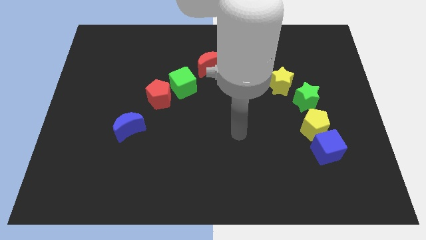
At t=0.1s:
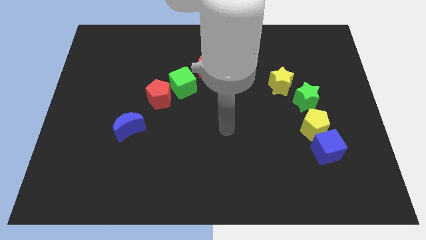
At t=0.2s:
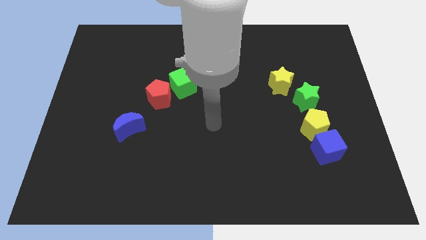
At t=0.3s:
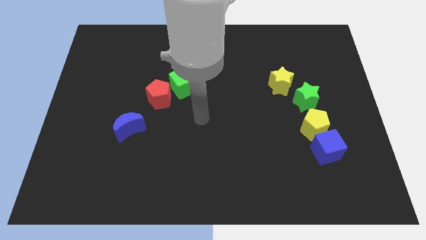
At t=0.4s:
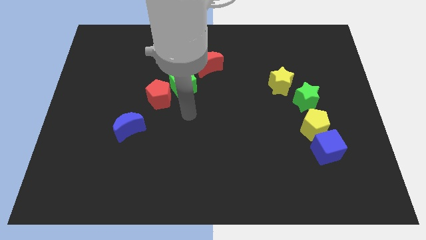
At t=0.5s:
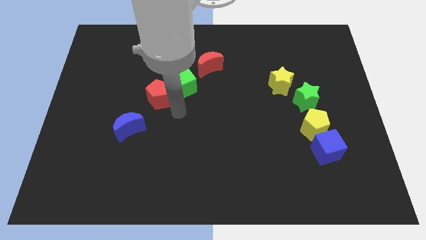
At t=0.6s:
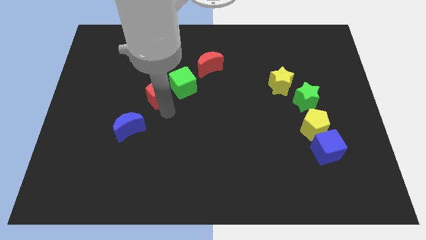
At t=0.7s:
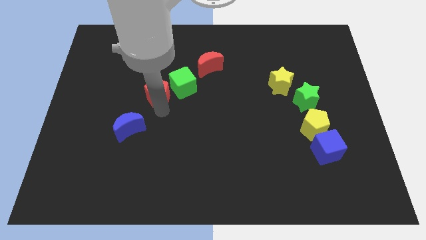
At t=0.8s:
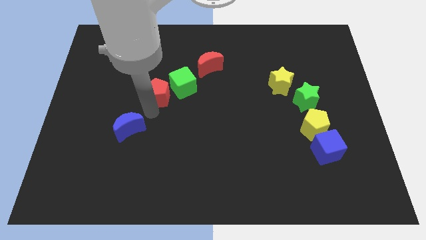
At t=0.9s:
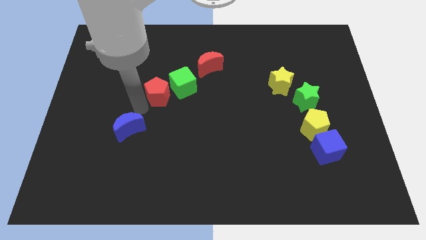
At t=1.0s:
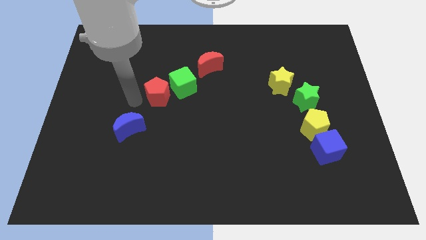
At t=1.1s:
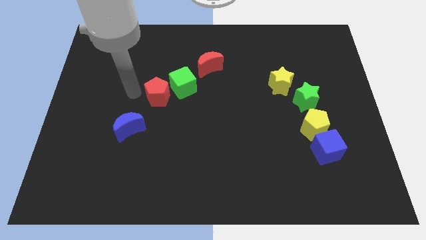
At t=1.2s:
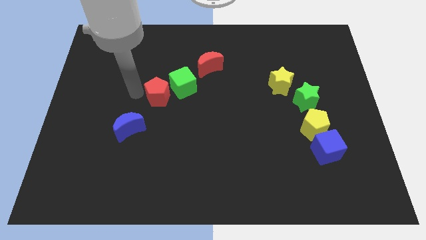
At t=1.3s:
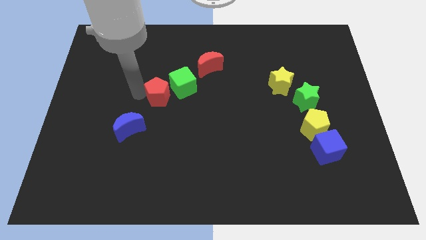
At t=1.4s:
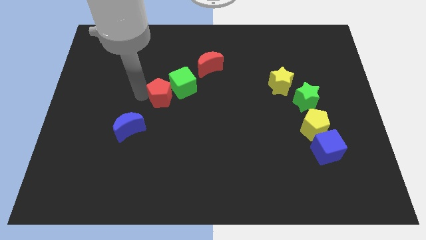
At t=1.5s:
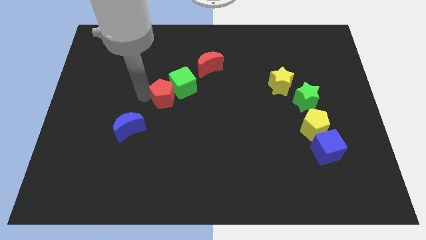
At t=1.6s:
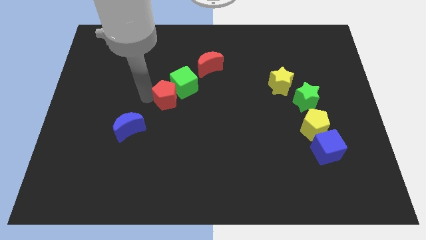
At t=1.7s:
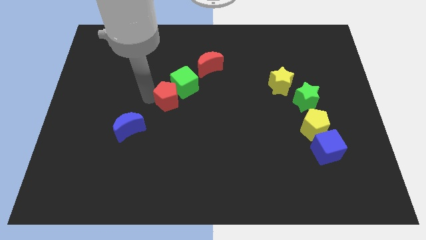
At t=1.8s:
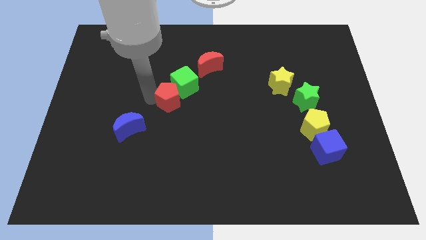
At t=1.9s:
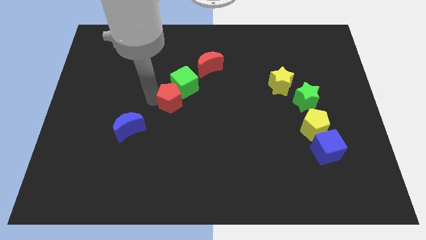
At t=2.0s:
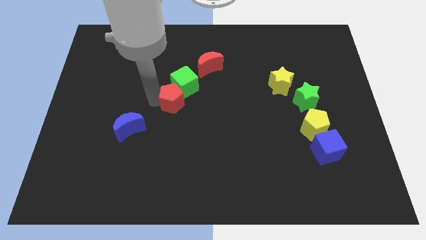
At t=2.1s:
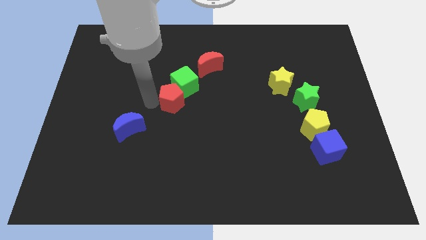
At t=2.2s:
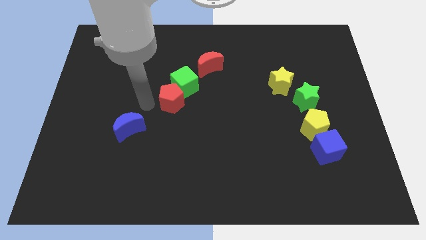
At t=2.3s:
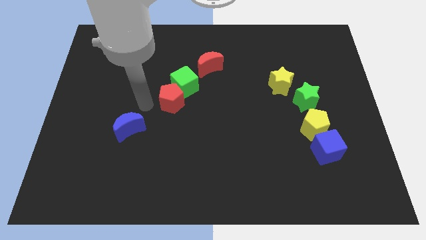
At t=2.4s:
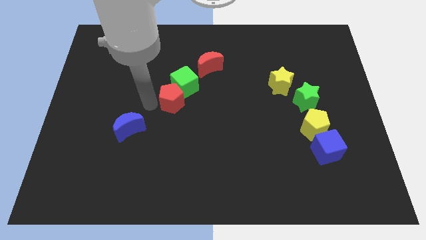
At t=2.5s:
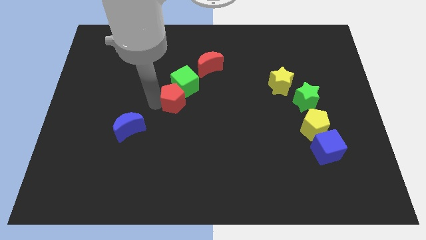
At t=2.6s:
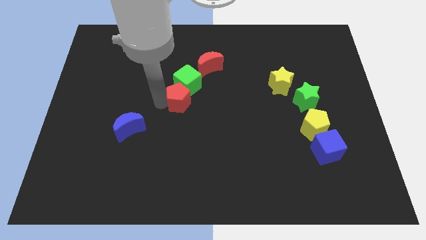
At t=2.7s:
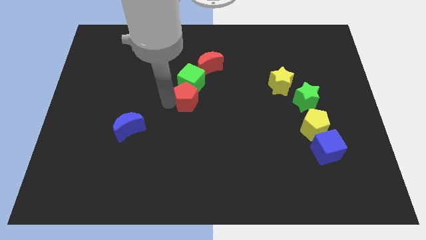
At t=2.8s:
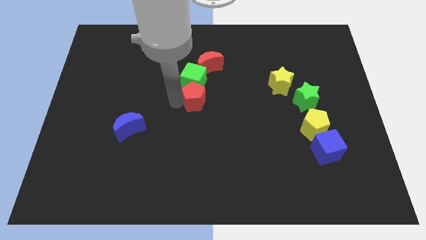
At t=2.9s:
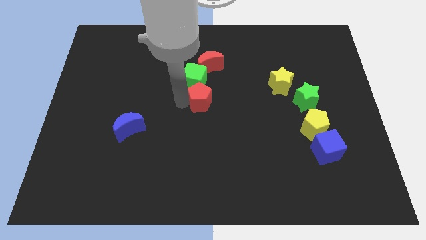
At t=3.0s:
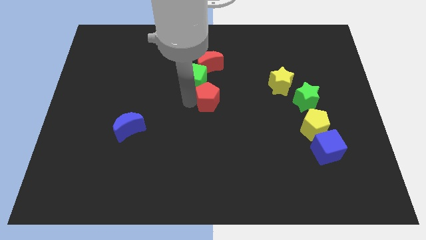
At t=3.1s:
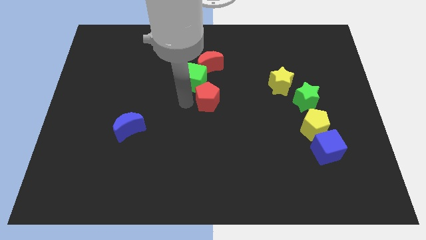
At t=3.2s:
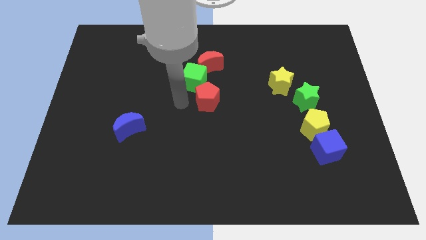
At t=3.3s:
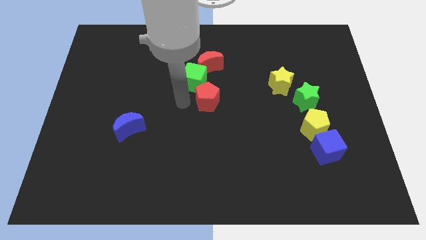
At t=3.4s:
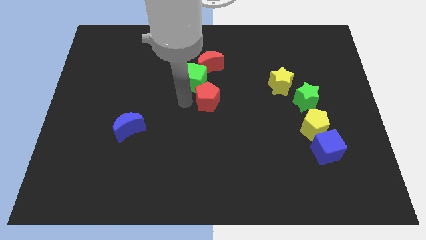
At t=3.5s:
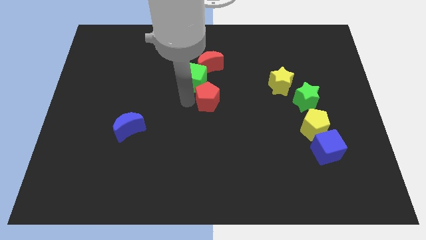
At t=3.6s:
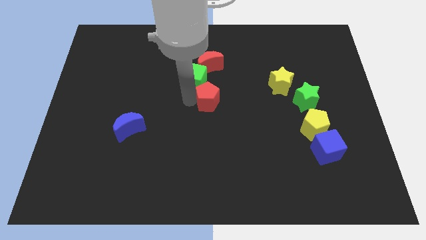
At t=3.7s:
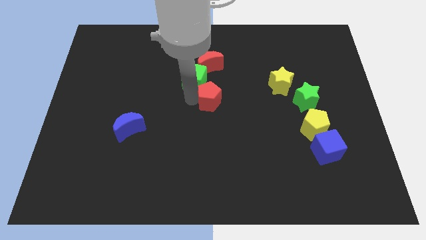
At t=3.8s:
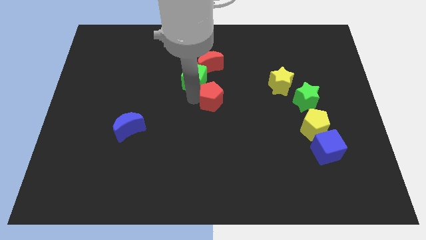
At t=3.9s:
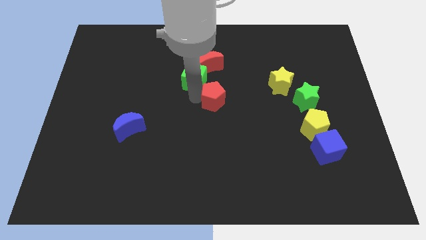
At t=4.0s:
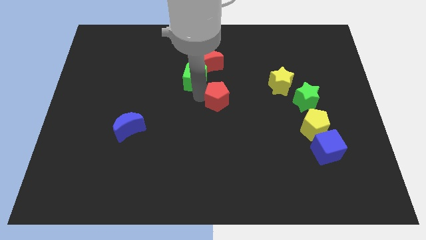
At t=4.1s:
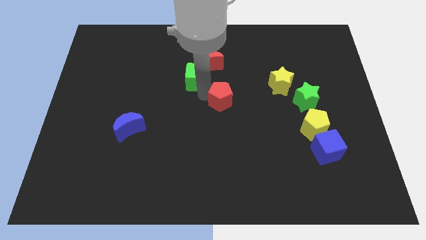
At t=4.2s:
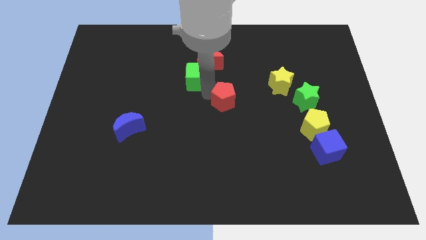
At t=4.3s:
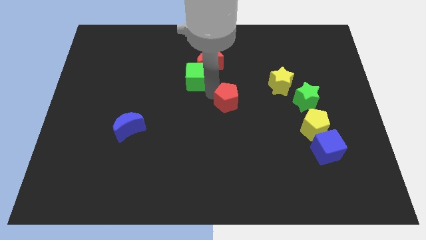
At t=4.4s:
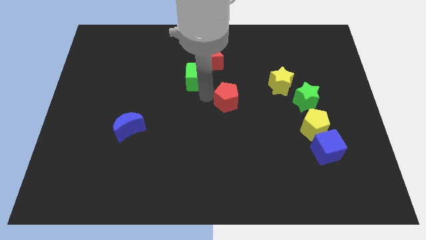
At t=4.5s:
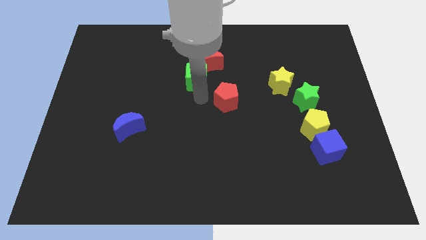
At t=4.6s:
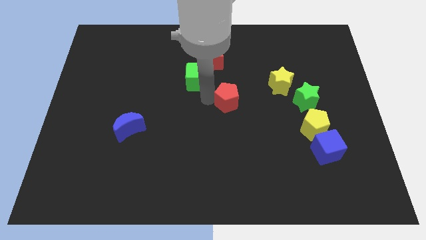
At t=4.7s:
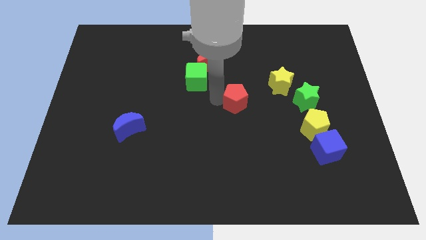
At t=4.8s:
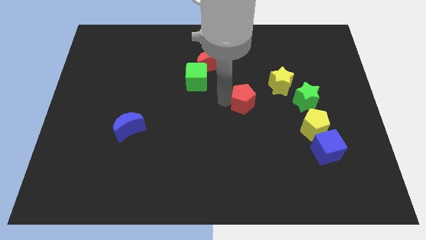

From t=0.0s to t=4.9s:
move the red pentagon to the bottom left side of the yellow star

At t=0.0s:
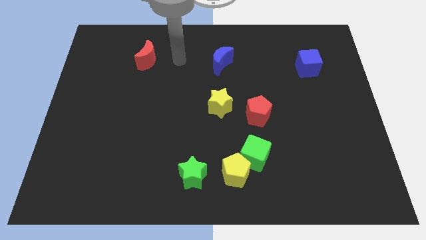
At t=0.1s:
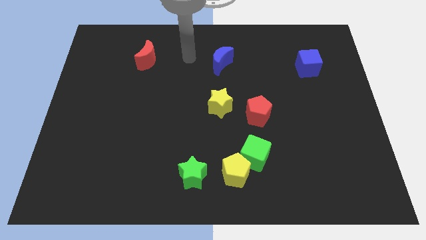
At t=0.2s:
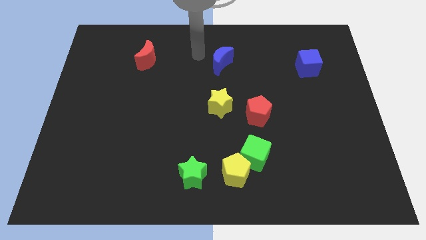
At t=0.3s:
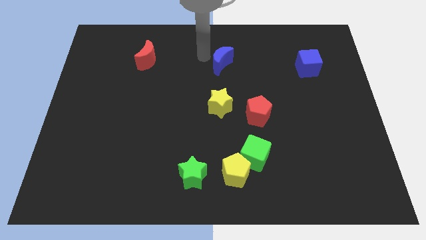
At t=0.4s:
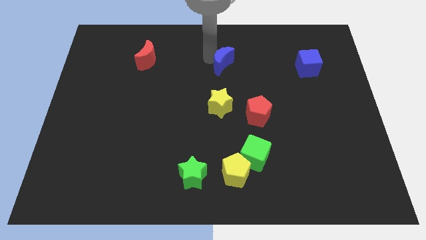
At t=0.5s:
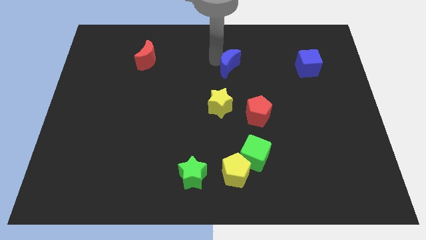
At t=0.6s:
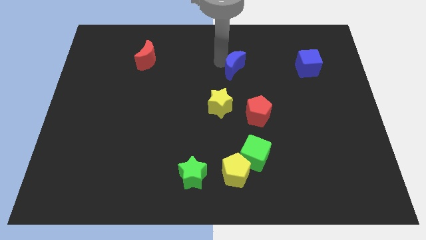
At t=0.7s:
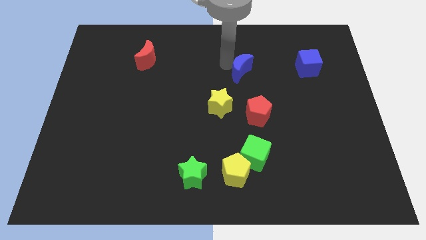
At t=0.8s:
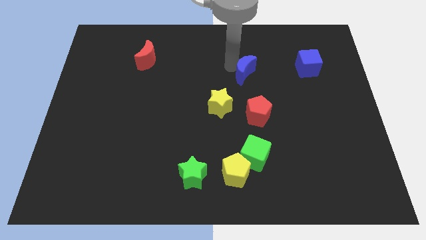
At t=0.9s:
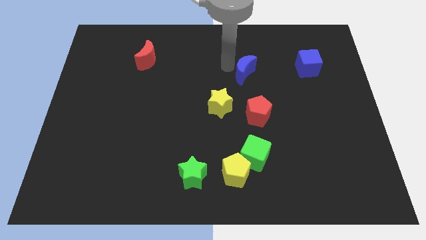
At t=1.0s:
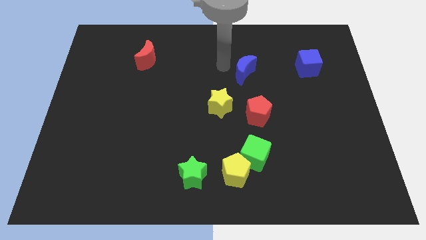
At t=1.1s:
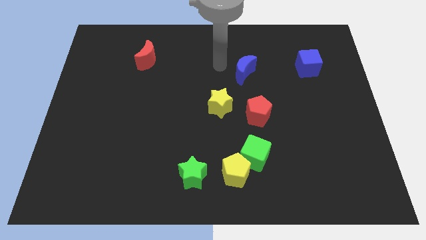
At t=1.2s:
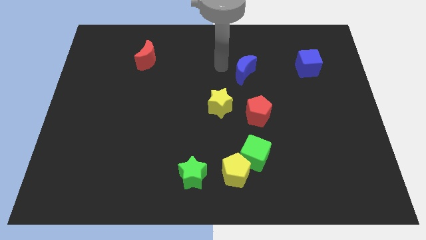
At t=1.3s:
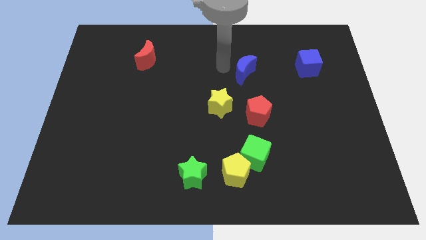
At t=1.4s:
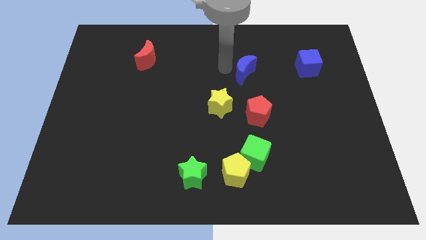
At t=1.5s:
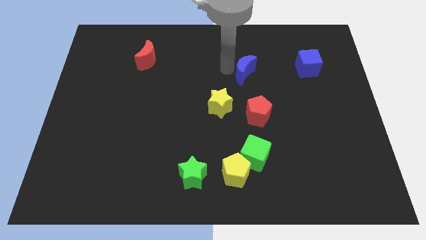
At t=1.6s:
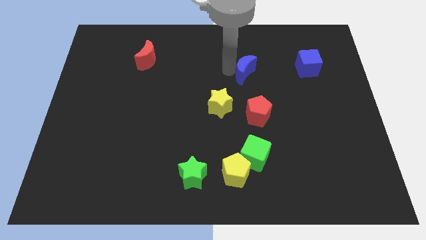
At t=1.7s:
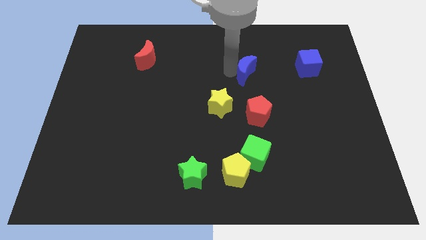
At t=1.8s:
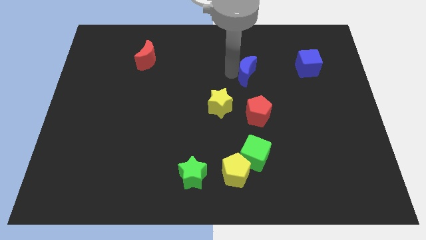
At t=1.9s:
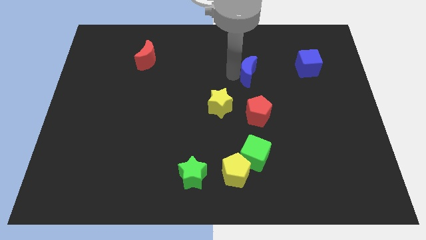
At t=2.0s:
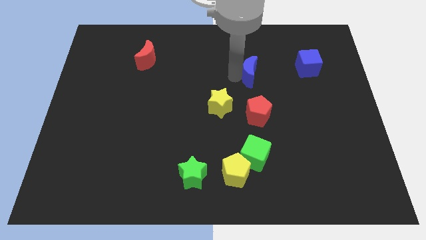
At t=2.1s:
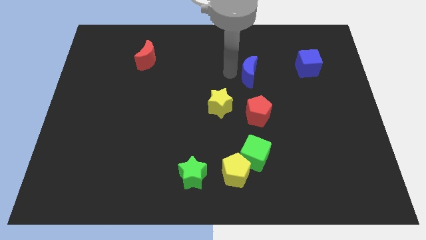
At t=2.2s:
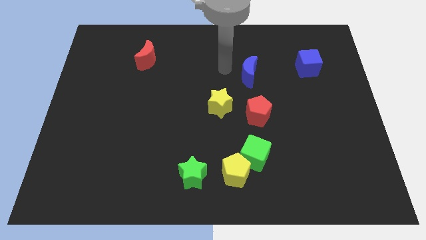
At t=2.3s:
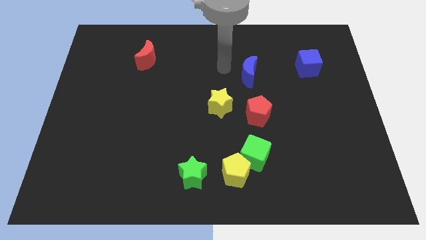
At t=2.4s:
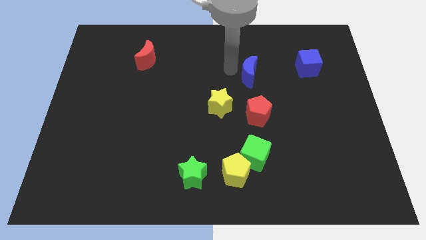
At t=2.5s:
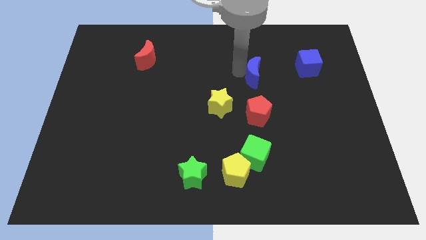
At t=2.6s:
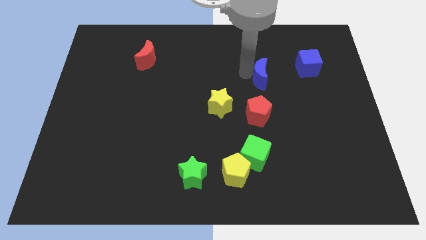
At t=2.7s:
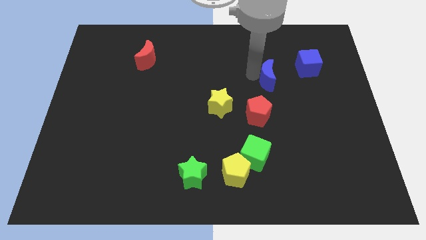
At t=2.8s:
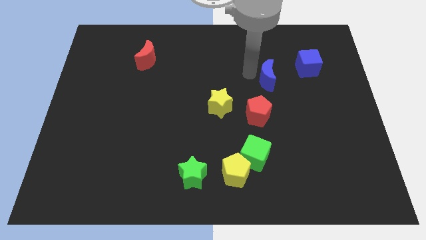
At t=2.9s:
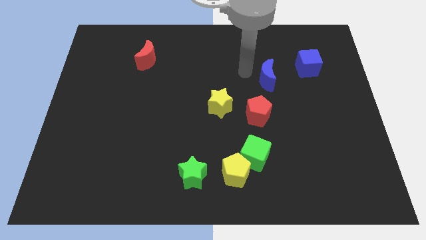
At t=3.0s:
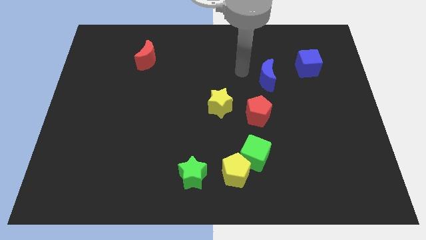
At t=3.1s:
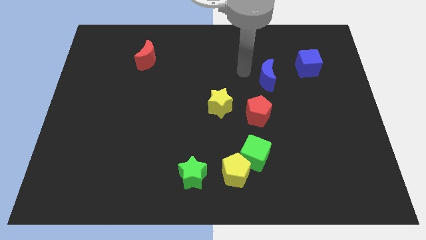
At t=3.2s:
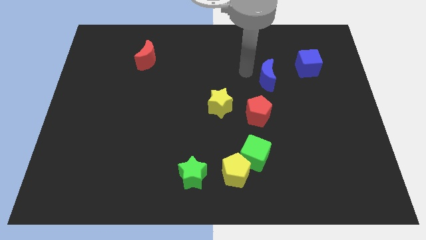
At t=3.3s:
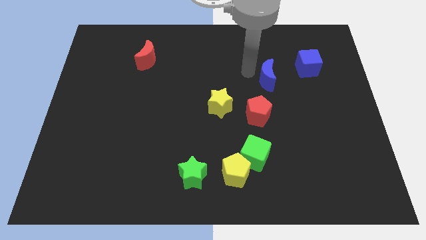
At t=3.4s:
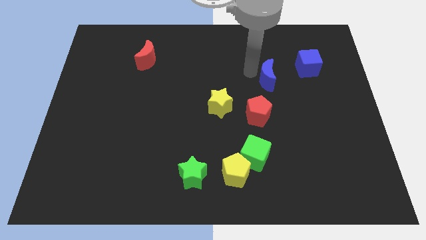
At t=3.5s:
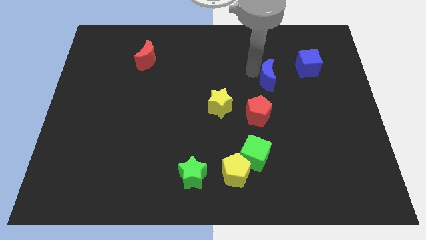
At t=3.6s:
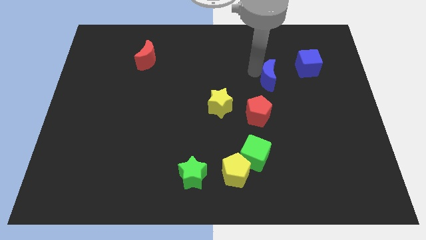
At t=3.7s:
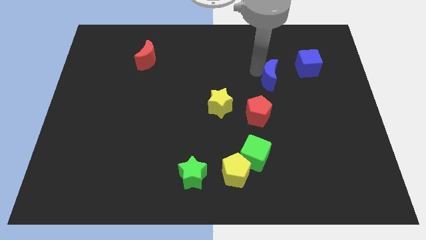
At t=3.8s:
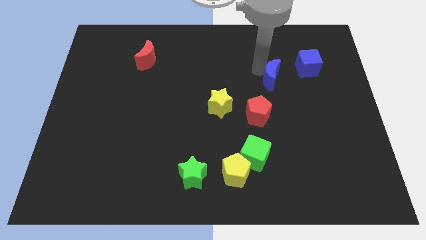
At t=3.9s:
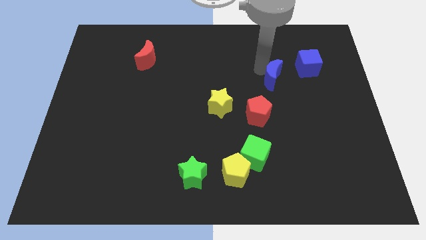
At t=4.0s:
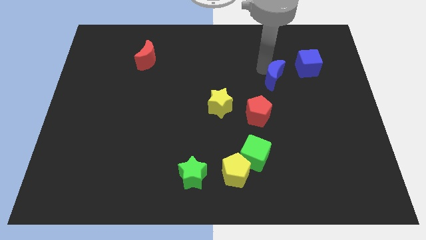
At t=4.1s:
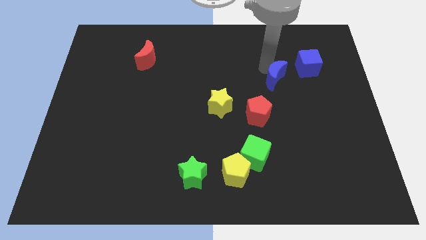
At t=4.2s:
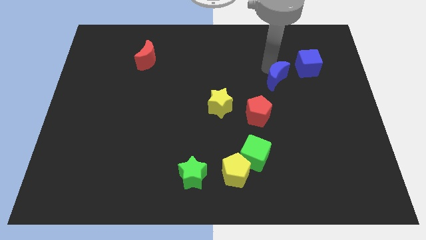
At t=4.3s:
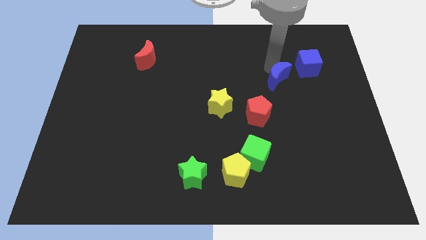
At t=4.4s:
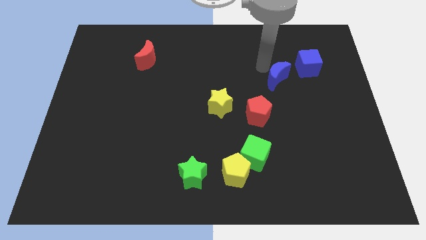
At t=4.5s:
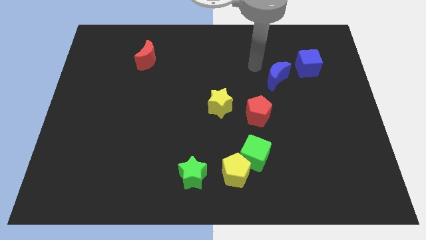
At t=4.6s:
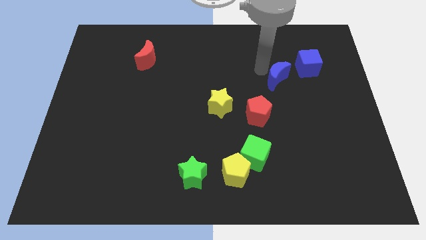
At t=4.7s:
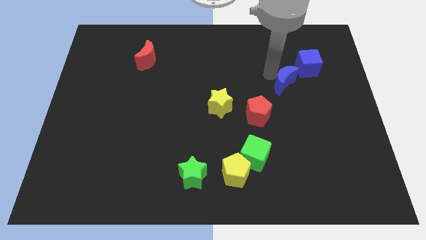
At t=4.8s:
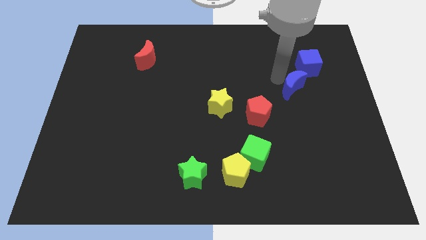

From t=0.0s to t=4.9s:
push the blue moon to the bottom side of the blue cube
